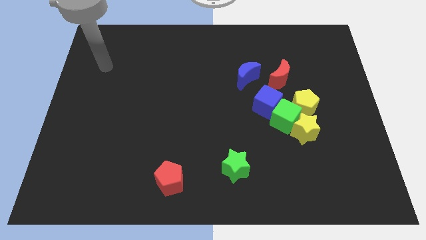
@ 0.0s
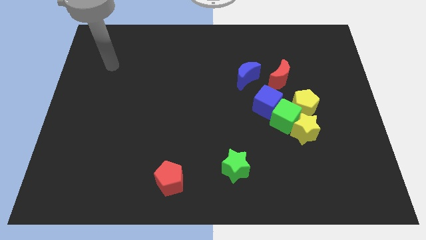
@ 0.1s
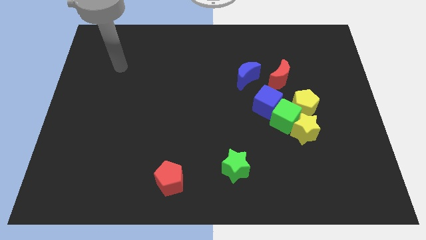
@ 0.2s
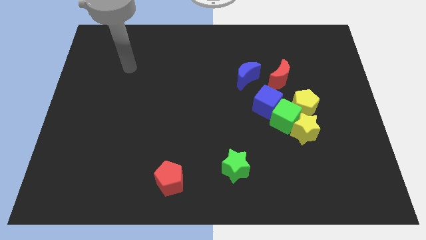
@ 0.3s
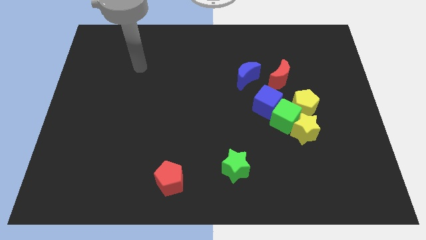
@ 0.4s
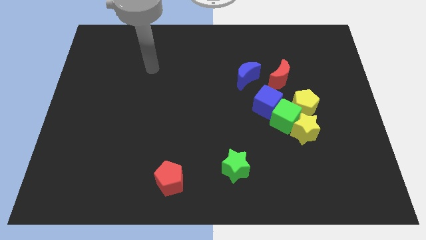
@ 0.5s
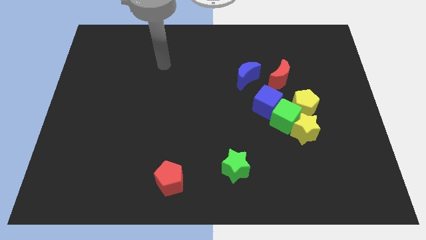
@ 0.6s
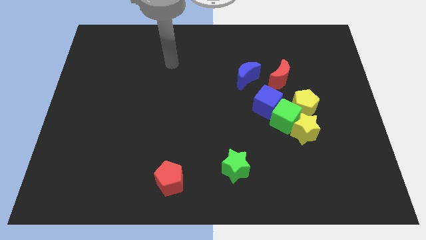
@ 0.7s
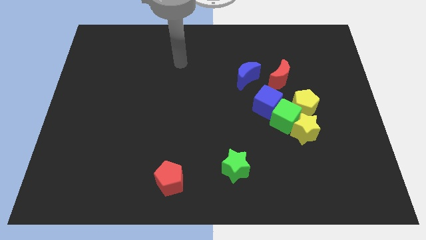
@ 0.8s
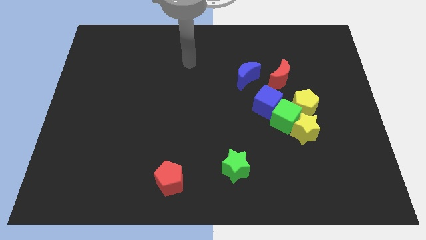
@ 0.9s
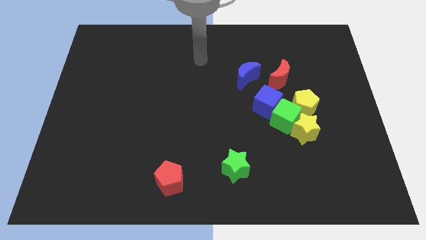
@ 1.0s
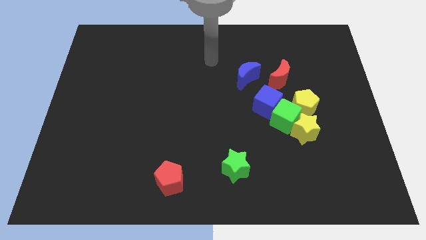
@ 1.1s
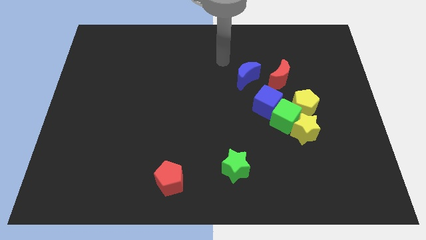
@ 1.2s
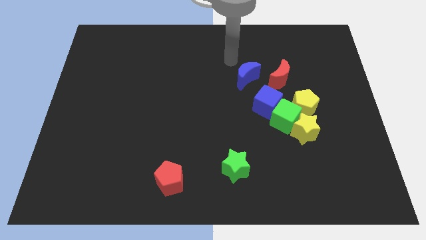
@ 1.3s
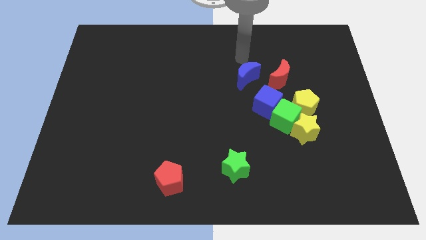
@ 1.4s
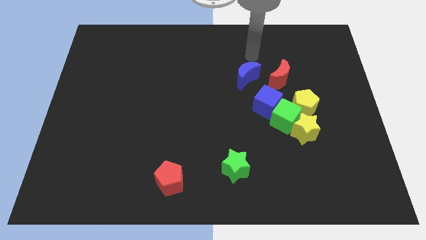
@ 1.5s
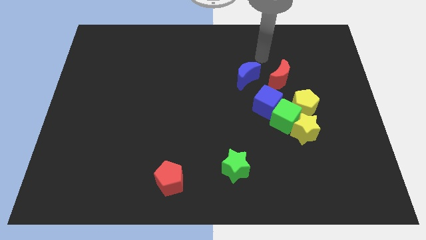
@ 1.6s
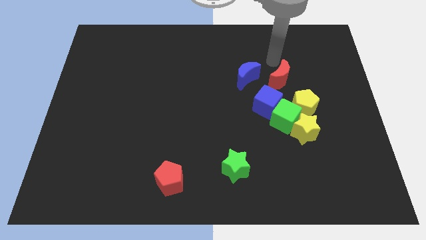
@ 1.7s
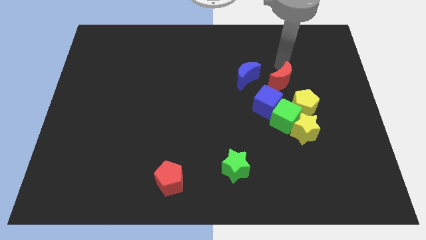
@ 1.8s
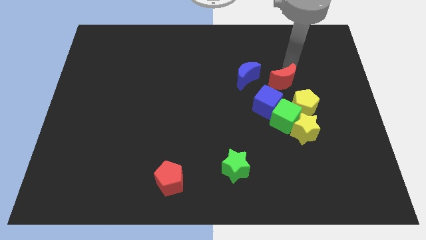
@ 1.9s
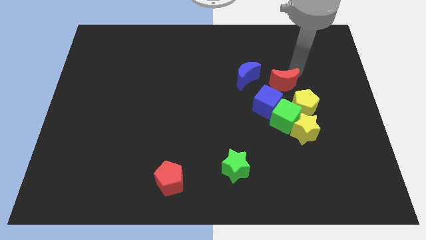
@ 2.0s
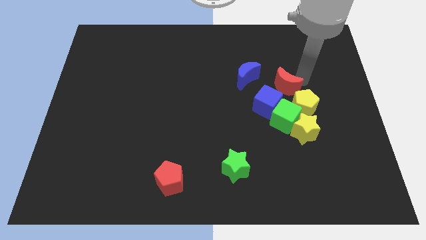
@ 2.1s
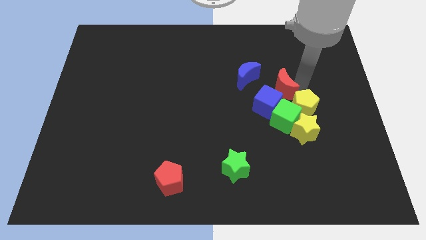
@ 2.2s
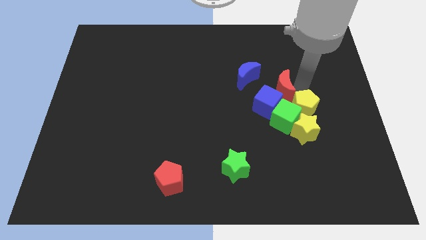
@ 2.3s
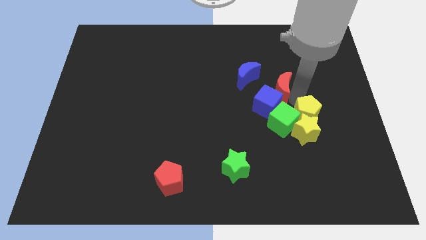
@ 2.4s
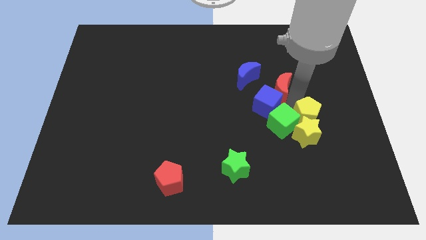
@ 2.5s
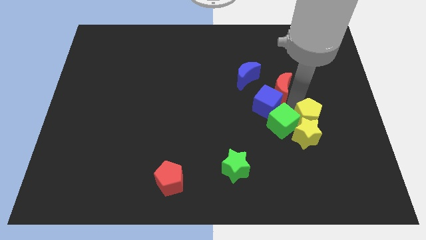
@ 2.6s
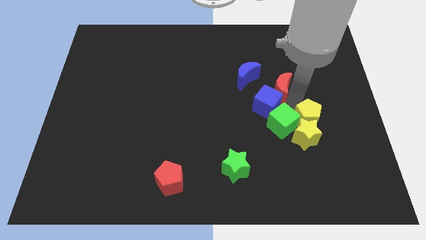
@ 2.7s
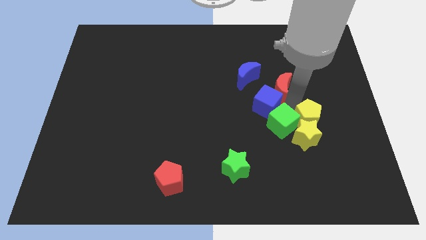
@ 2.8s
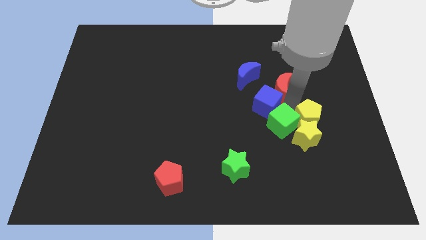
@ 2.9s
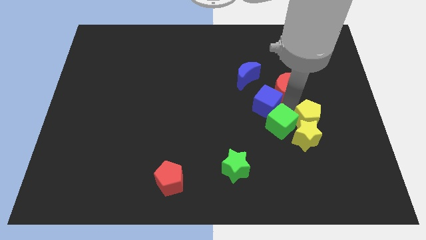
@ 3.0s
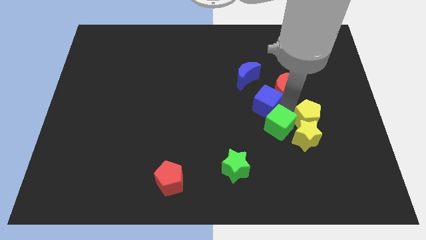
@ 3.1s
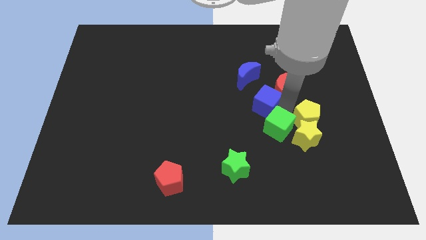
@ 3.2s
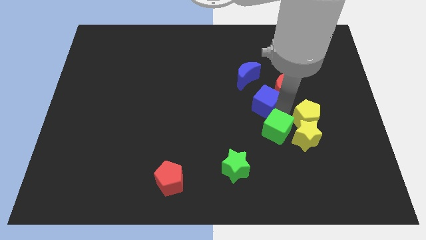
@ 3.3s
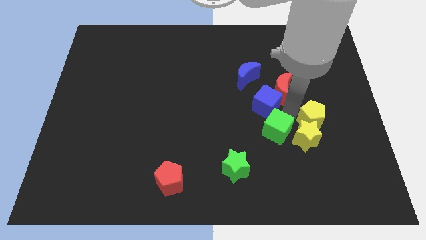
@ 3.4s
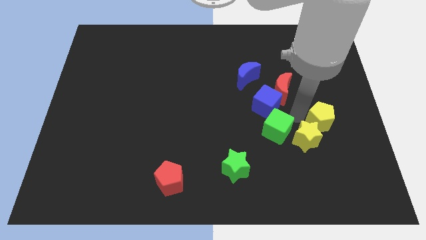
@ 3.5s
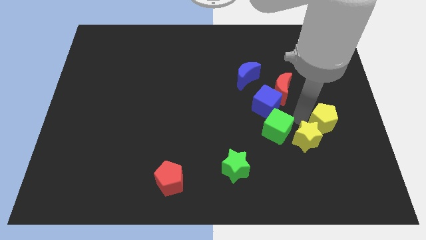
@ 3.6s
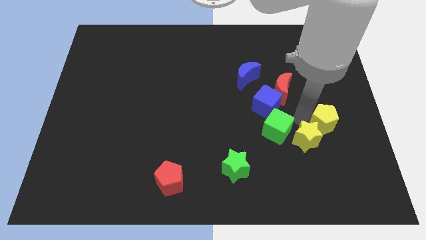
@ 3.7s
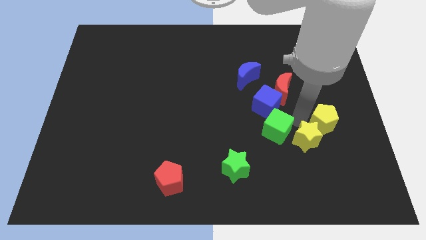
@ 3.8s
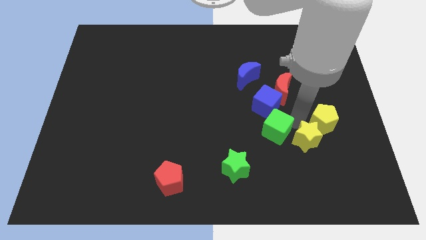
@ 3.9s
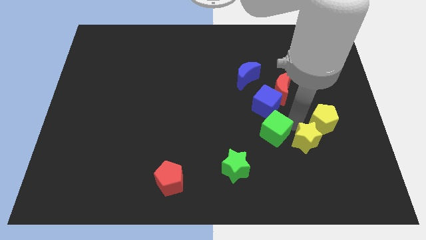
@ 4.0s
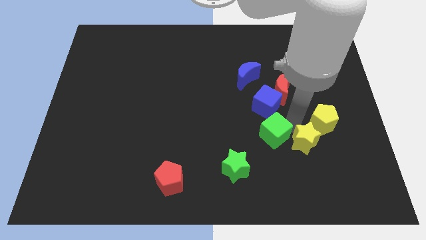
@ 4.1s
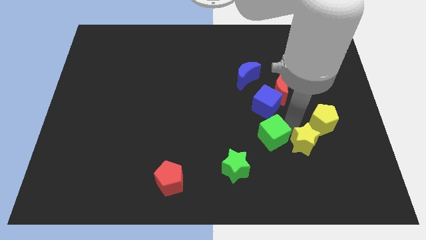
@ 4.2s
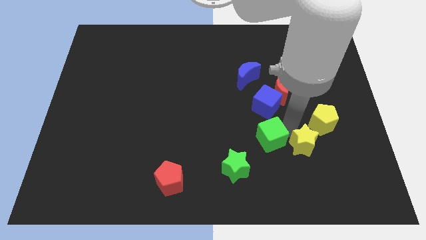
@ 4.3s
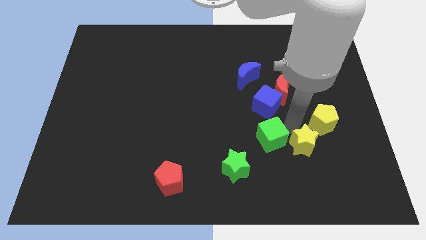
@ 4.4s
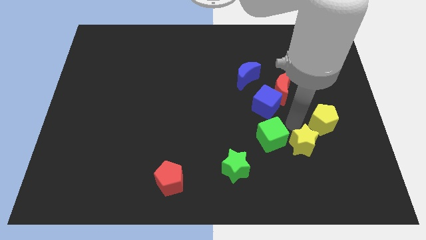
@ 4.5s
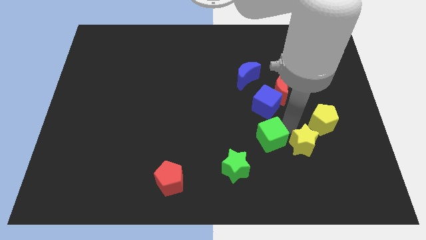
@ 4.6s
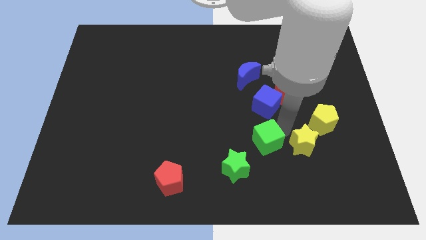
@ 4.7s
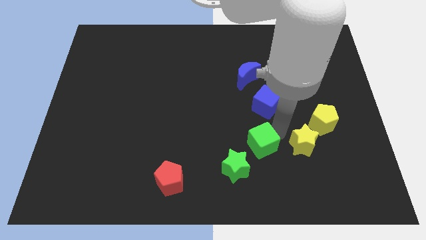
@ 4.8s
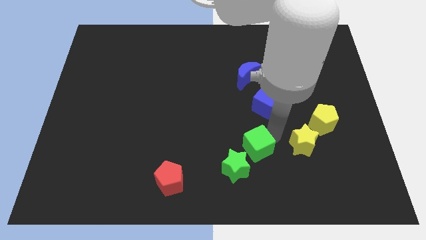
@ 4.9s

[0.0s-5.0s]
pull the green cube apart from the clump

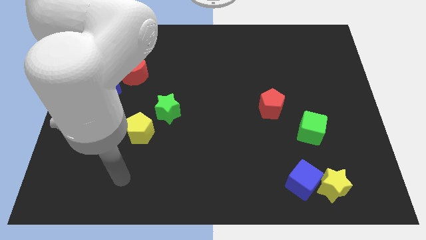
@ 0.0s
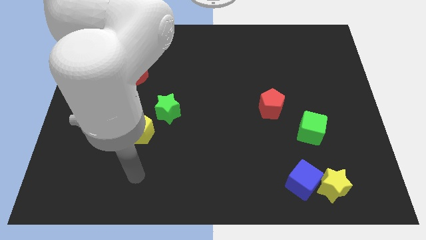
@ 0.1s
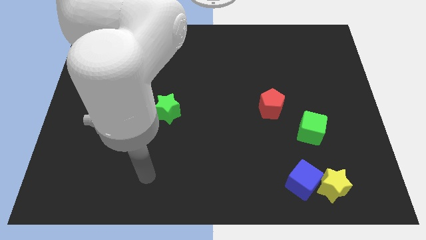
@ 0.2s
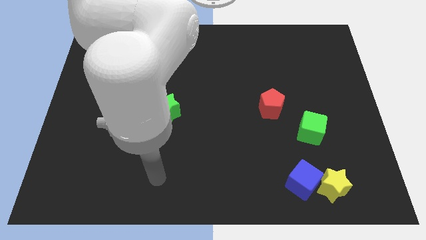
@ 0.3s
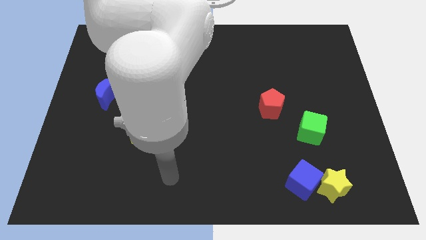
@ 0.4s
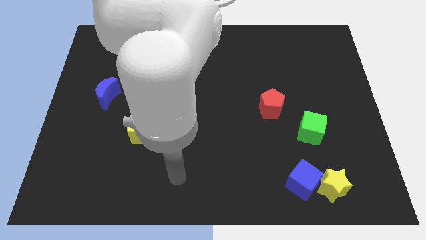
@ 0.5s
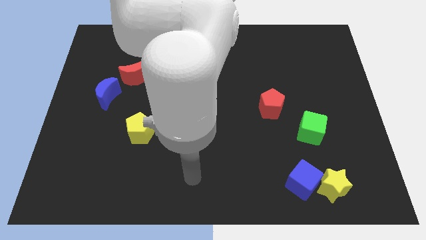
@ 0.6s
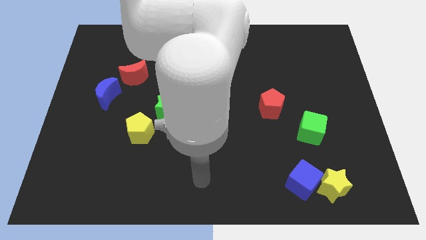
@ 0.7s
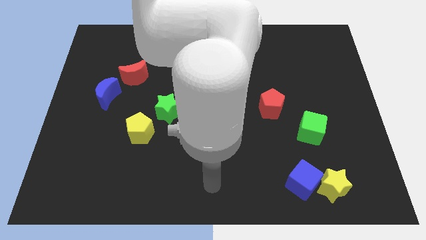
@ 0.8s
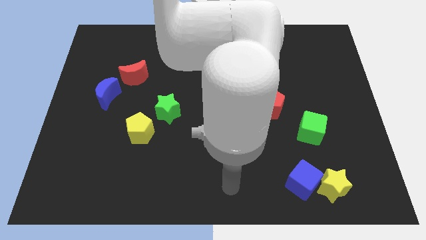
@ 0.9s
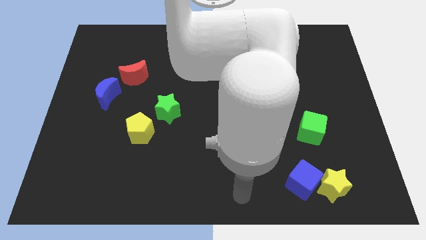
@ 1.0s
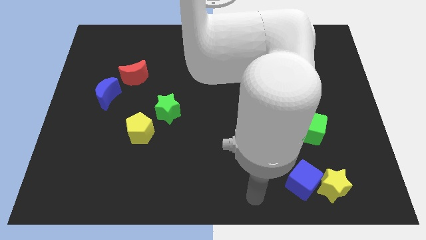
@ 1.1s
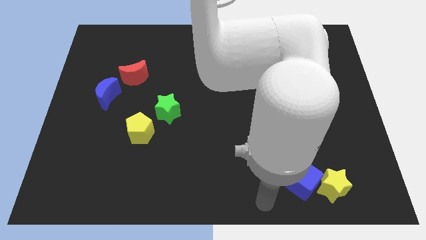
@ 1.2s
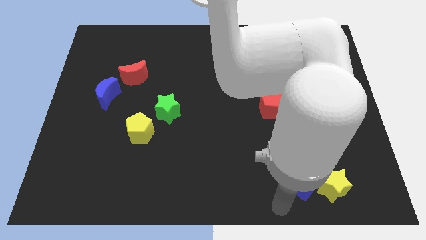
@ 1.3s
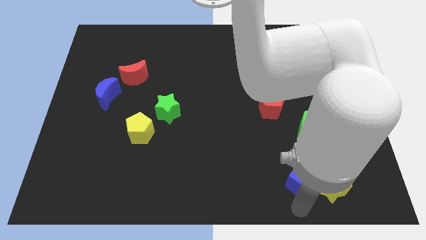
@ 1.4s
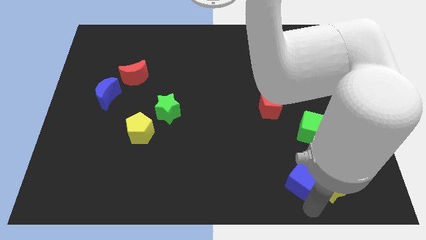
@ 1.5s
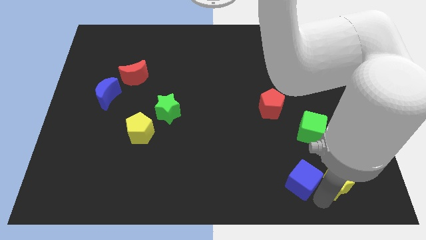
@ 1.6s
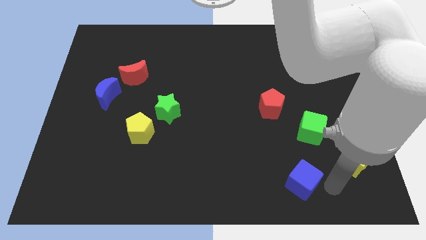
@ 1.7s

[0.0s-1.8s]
move the blue cube away from the yellow star

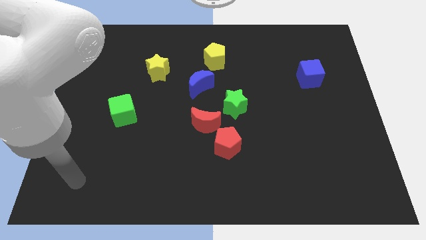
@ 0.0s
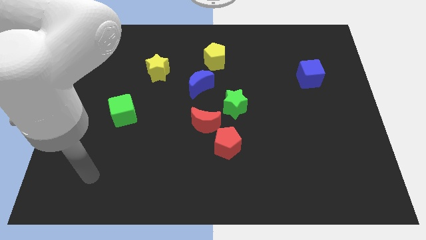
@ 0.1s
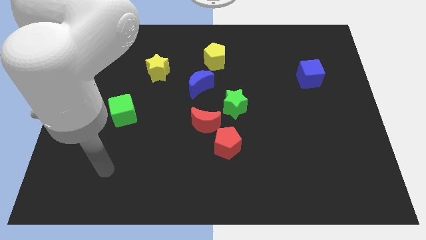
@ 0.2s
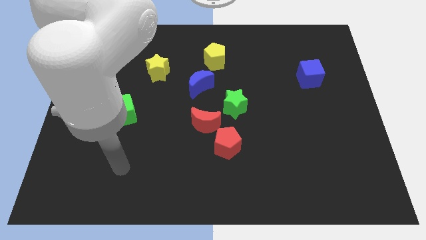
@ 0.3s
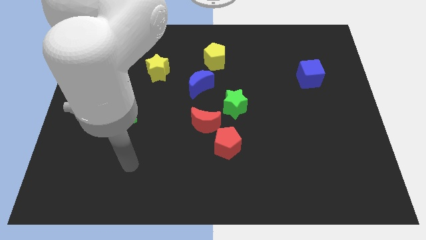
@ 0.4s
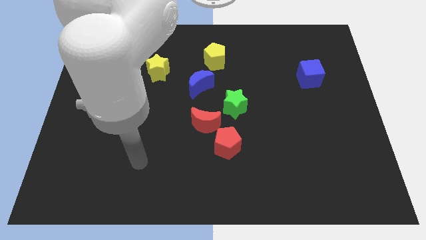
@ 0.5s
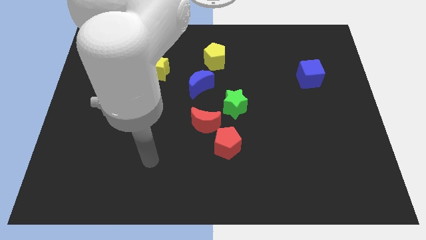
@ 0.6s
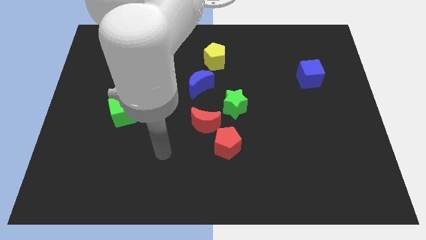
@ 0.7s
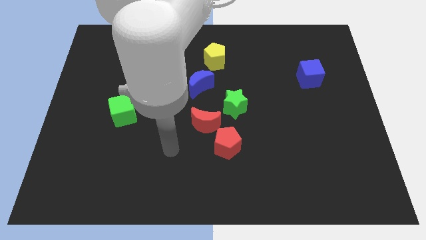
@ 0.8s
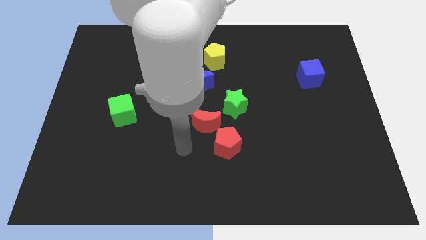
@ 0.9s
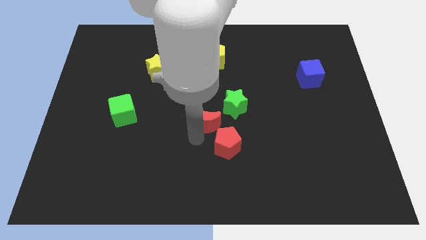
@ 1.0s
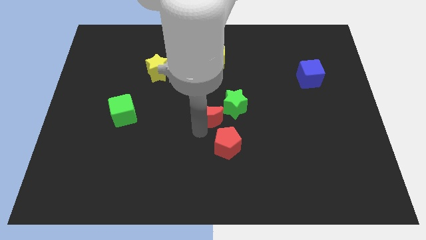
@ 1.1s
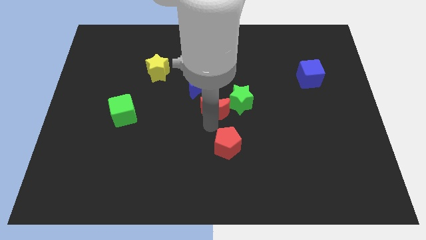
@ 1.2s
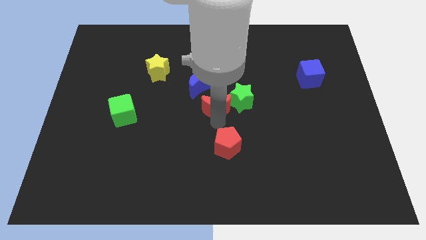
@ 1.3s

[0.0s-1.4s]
separate the red pentagon from the red moon

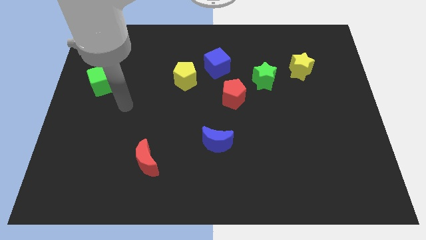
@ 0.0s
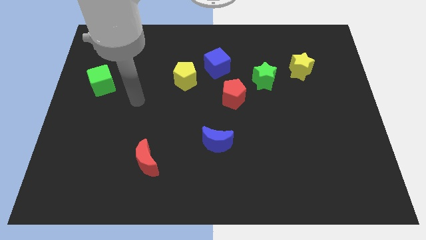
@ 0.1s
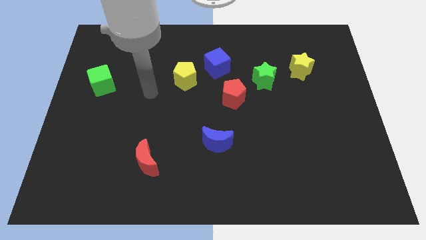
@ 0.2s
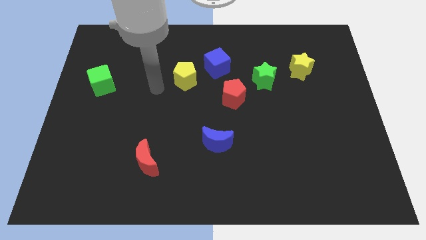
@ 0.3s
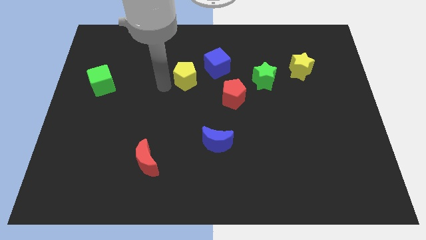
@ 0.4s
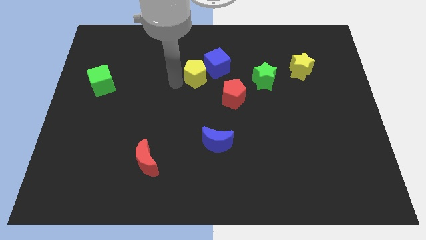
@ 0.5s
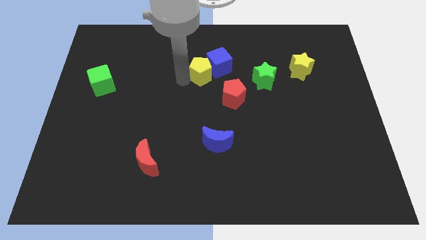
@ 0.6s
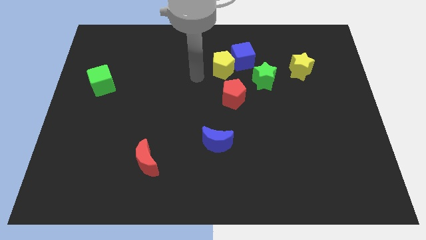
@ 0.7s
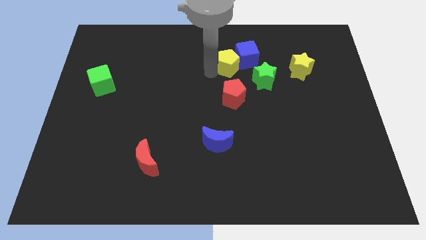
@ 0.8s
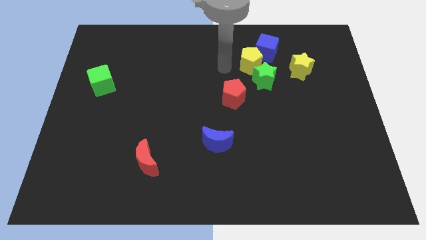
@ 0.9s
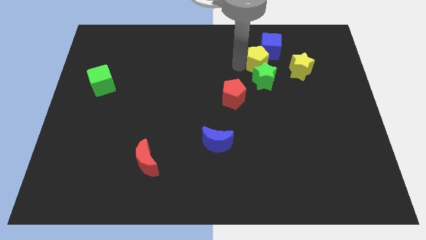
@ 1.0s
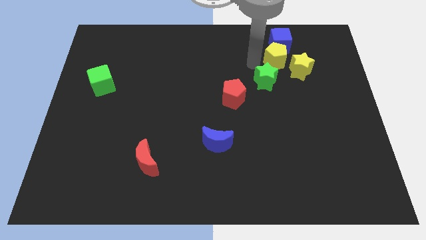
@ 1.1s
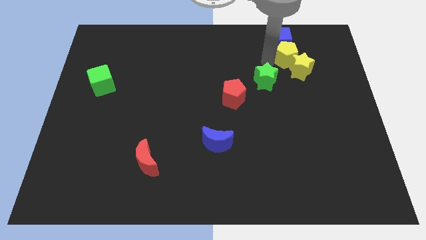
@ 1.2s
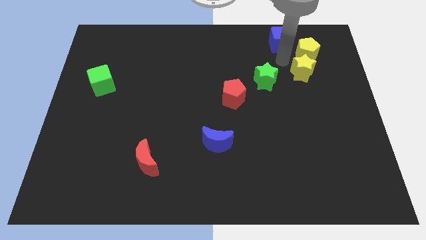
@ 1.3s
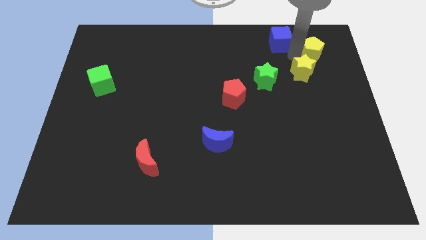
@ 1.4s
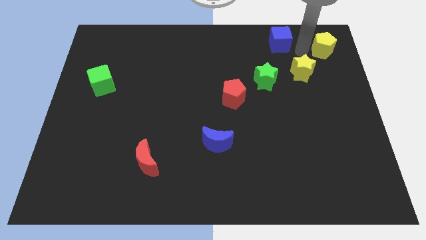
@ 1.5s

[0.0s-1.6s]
separate the blue cube from the yellow pentagon
